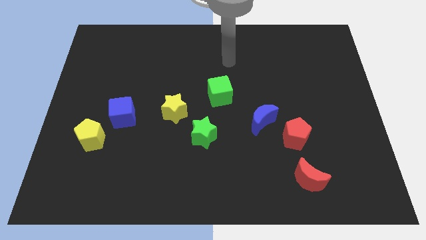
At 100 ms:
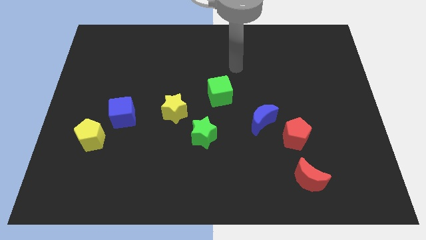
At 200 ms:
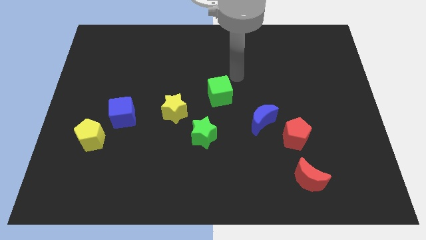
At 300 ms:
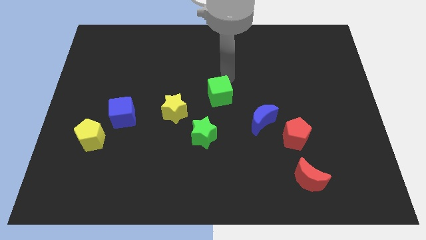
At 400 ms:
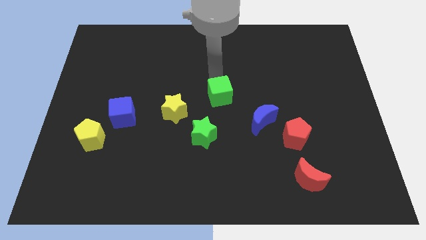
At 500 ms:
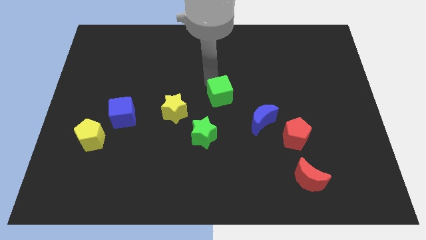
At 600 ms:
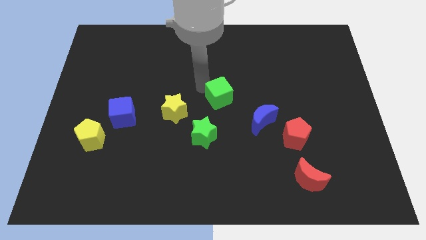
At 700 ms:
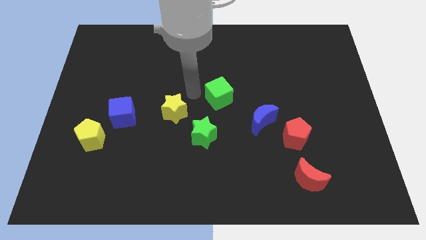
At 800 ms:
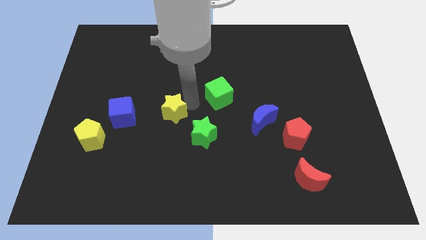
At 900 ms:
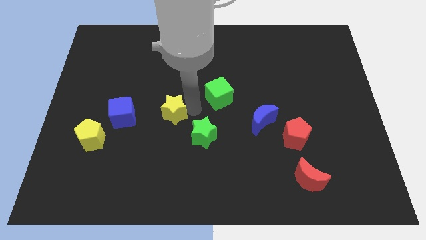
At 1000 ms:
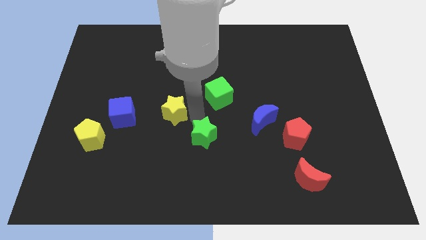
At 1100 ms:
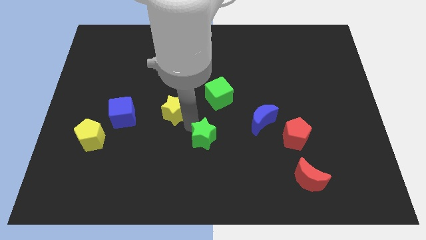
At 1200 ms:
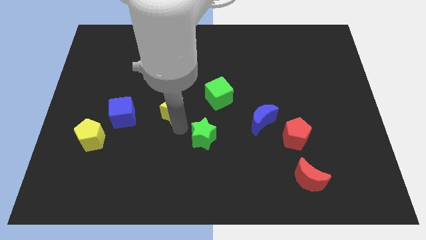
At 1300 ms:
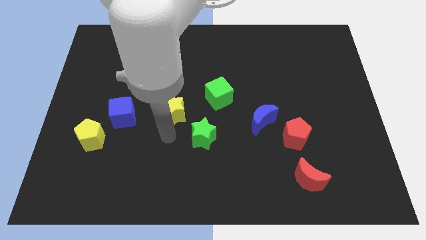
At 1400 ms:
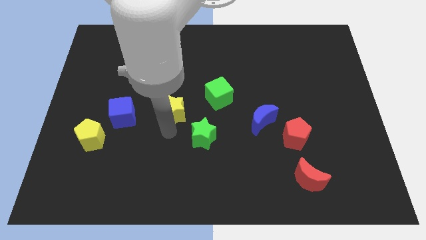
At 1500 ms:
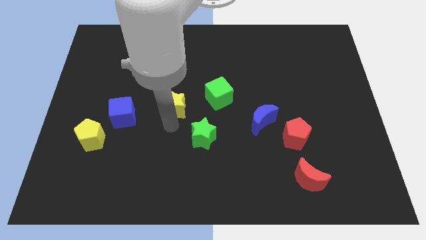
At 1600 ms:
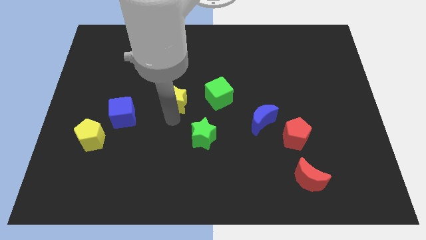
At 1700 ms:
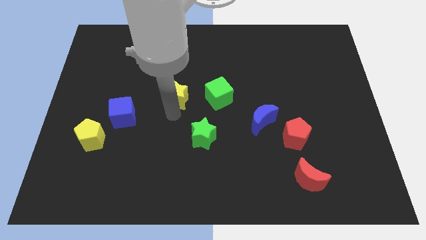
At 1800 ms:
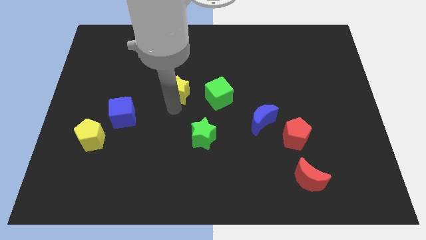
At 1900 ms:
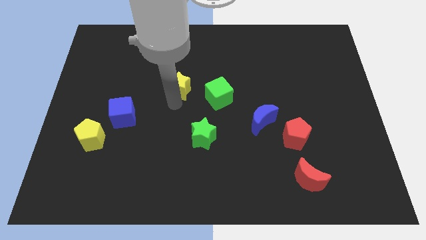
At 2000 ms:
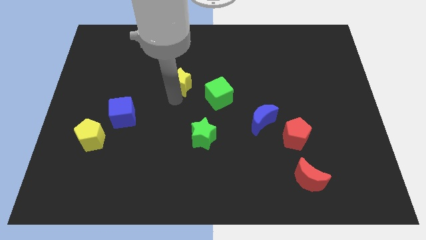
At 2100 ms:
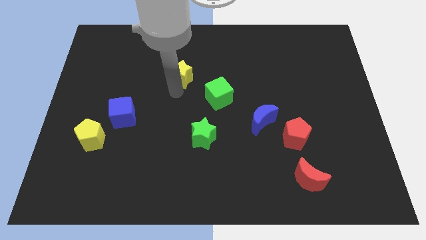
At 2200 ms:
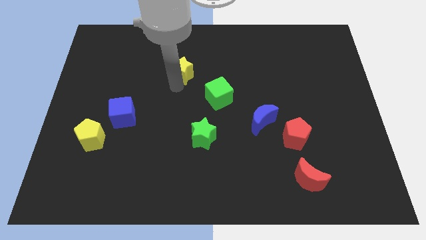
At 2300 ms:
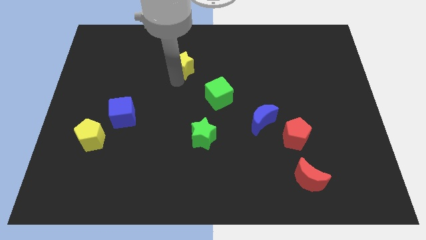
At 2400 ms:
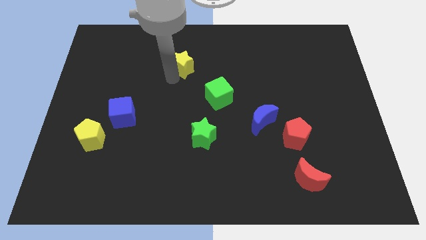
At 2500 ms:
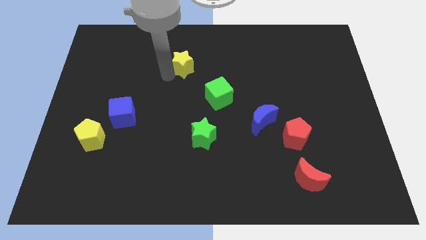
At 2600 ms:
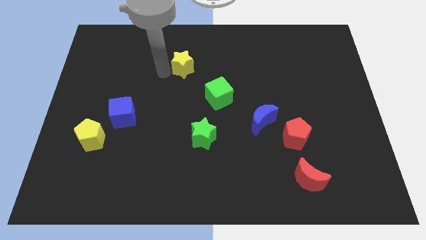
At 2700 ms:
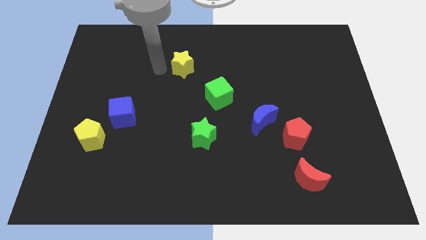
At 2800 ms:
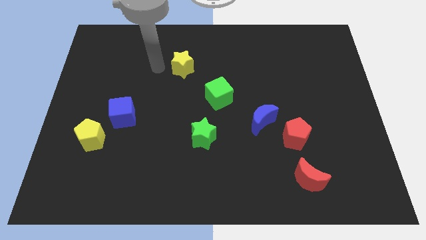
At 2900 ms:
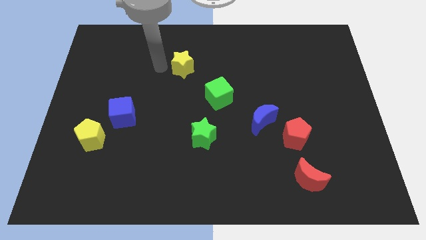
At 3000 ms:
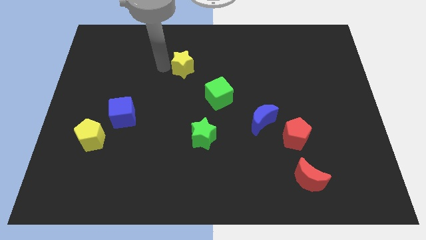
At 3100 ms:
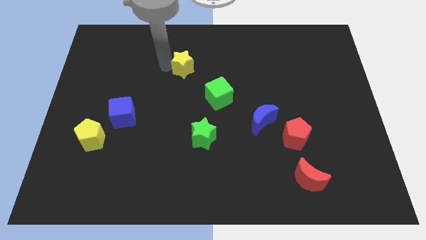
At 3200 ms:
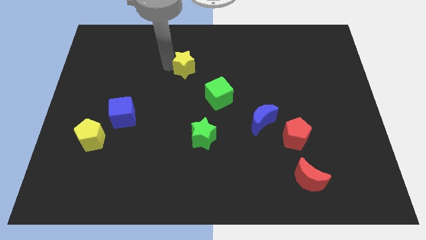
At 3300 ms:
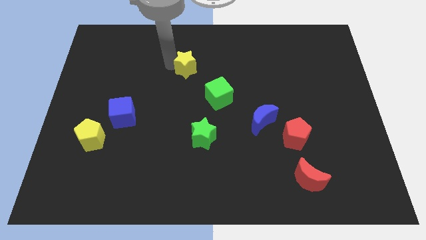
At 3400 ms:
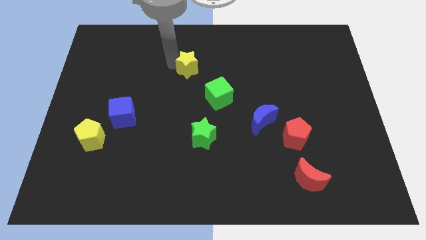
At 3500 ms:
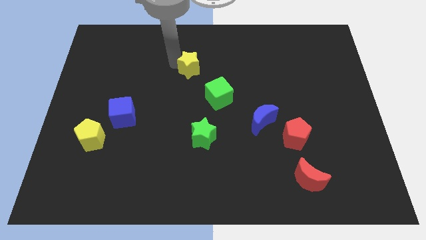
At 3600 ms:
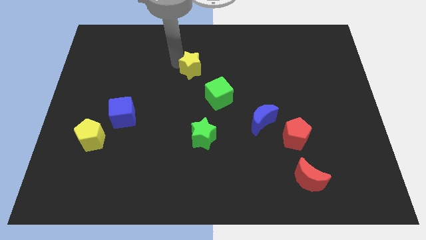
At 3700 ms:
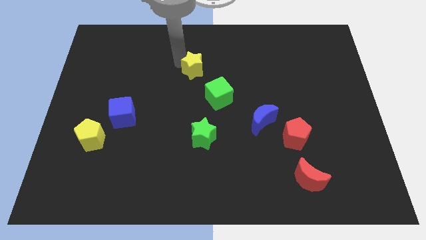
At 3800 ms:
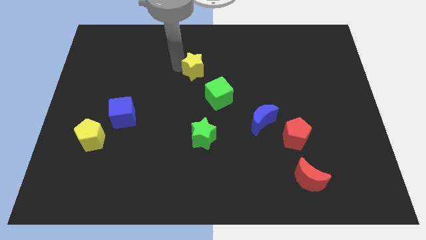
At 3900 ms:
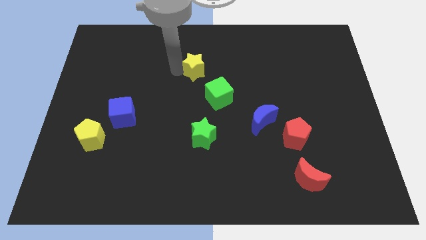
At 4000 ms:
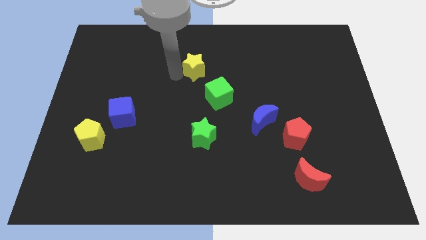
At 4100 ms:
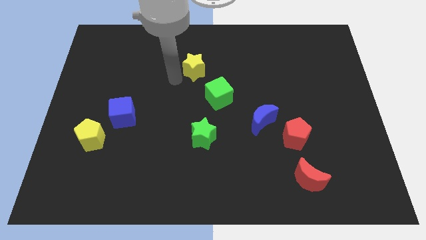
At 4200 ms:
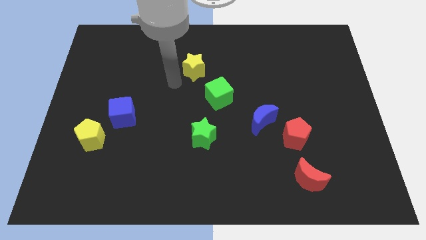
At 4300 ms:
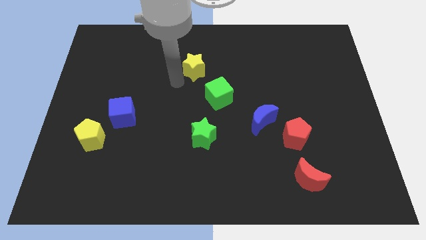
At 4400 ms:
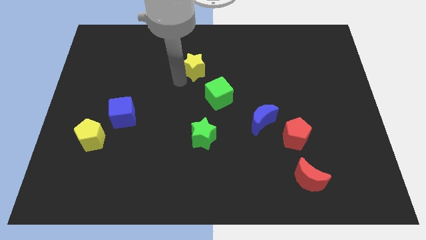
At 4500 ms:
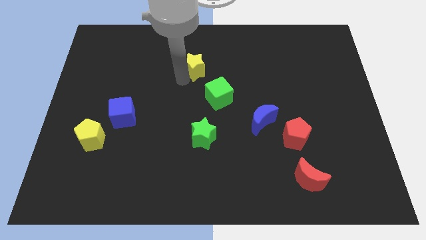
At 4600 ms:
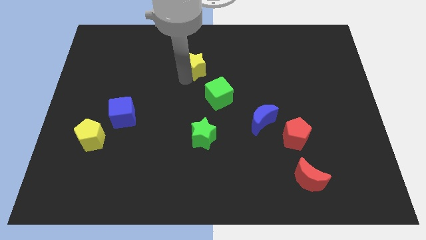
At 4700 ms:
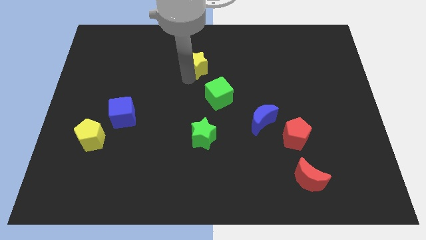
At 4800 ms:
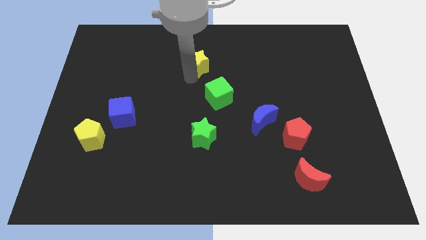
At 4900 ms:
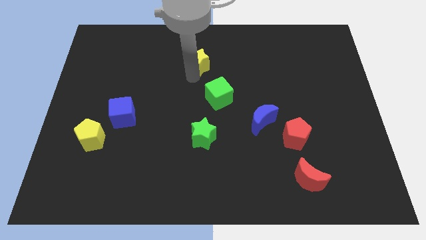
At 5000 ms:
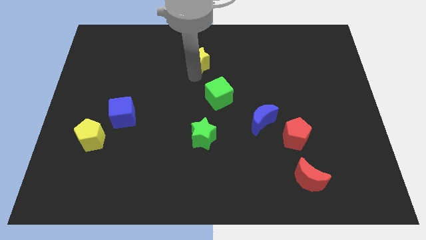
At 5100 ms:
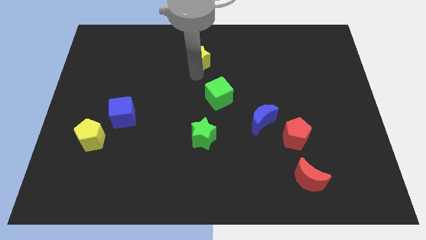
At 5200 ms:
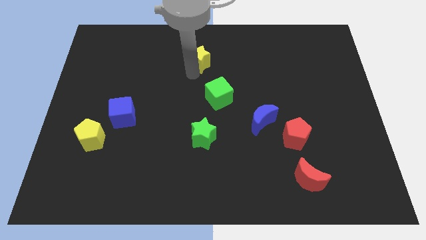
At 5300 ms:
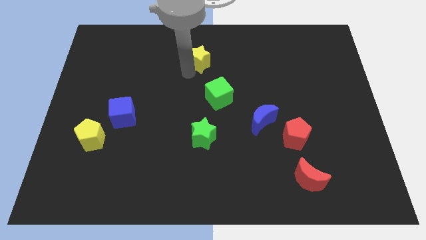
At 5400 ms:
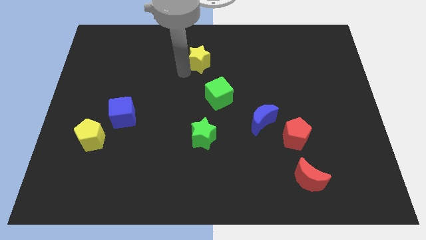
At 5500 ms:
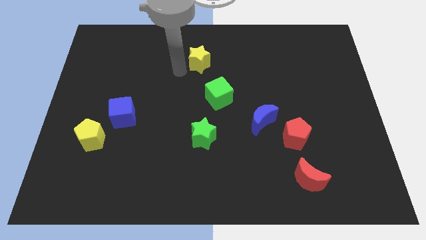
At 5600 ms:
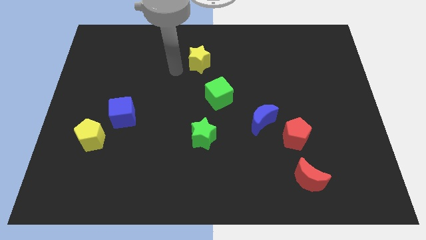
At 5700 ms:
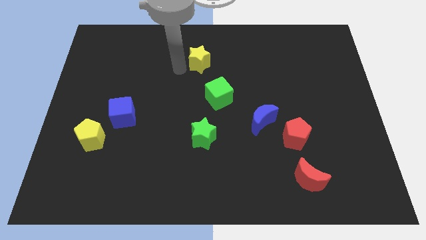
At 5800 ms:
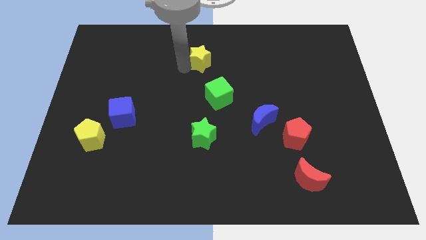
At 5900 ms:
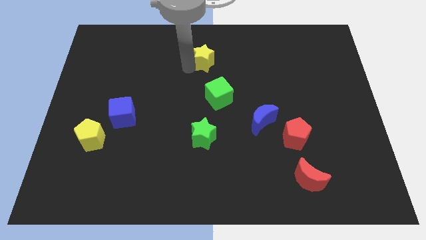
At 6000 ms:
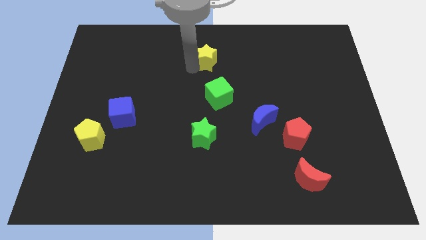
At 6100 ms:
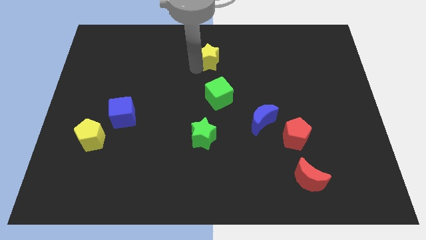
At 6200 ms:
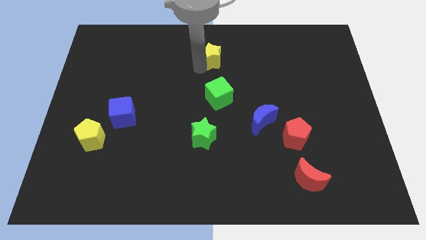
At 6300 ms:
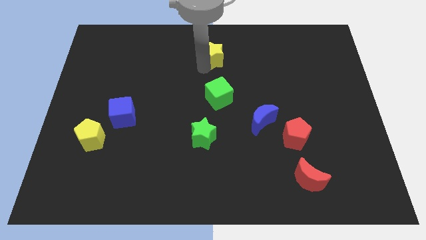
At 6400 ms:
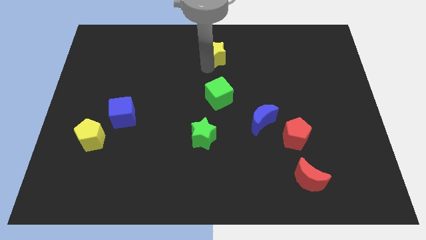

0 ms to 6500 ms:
move the yellow star to the towards your base
